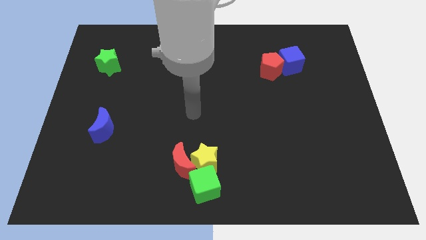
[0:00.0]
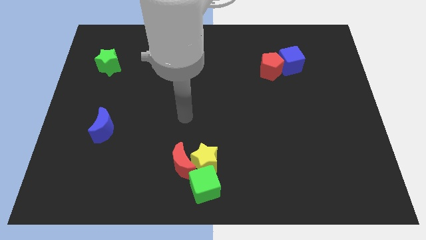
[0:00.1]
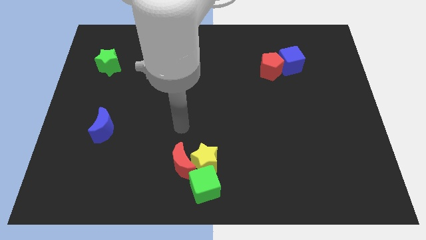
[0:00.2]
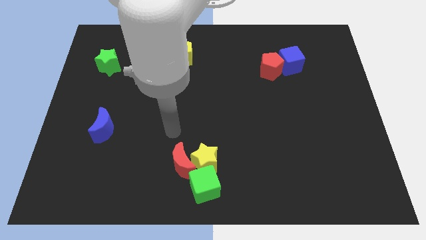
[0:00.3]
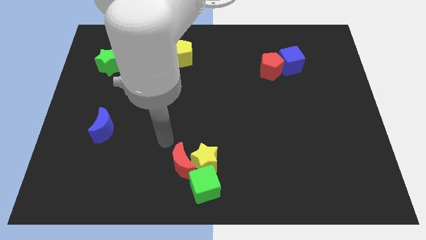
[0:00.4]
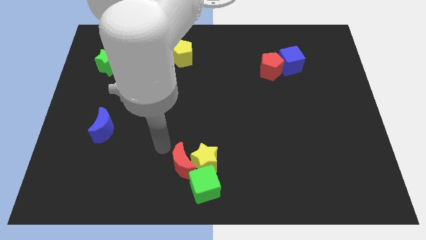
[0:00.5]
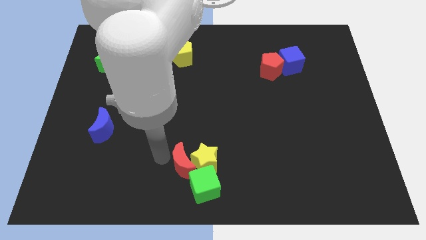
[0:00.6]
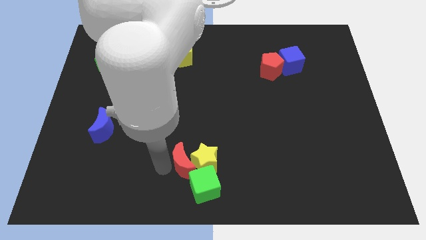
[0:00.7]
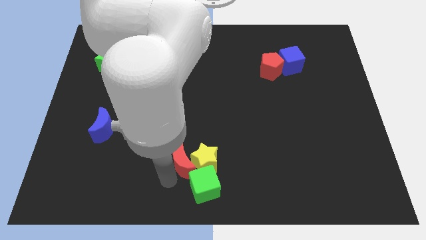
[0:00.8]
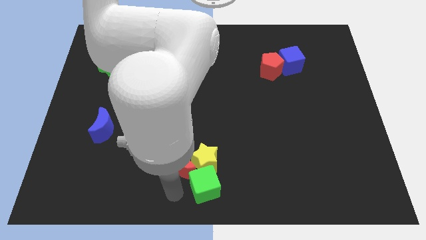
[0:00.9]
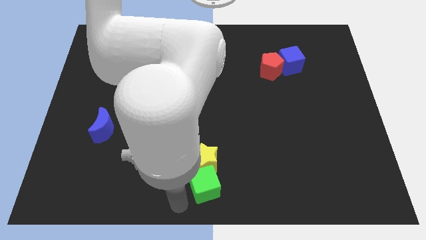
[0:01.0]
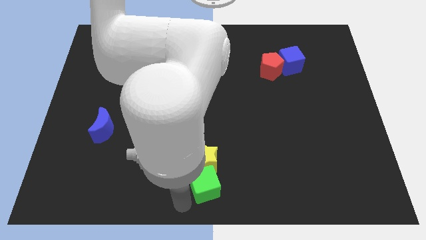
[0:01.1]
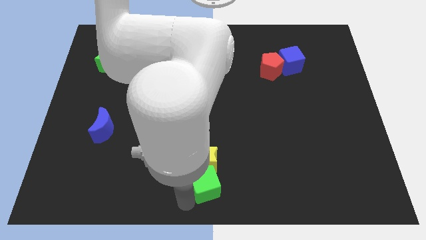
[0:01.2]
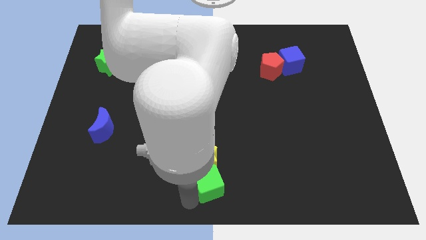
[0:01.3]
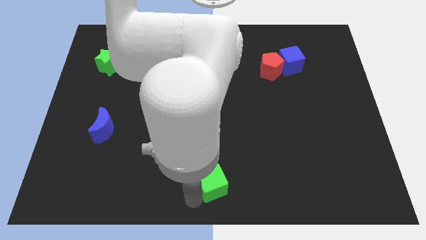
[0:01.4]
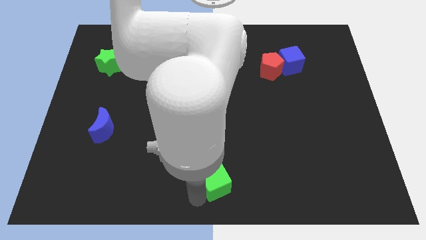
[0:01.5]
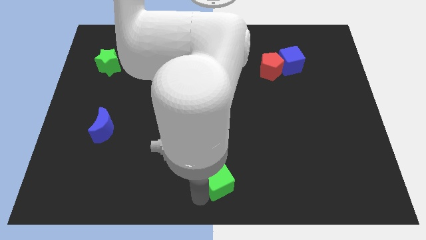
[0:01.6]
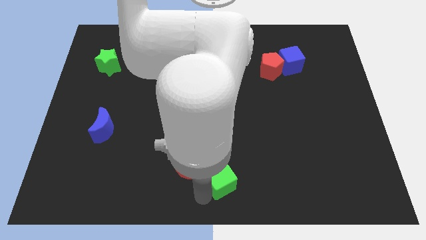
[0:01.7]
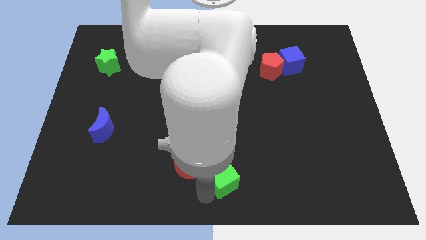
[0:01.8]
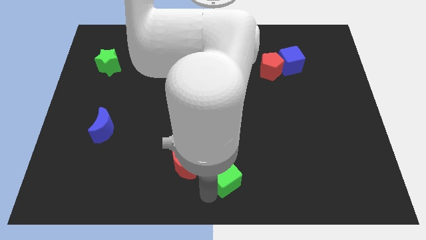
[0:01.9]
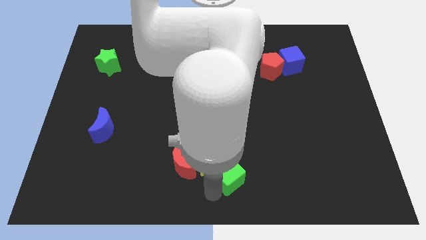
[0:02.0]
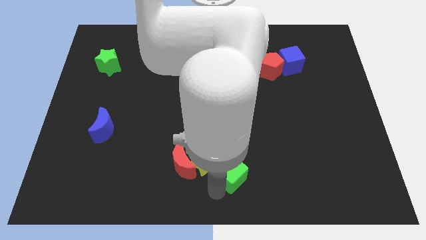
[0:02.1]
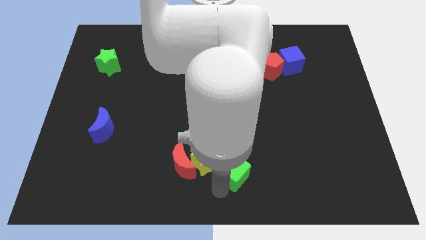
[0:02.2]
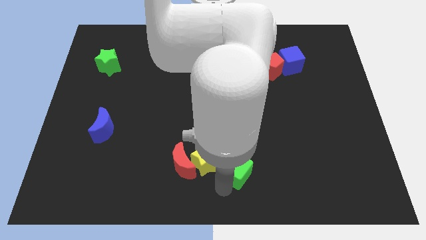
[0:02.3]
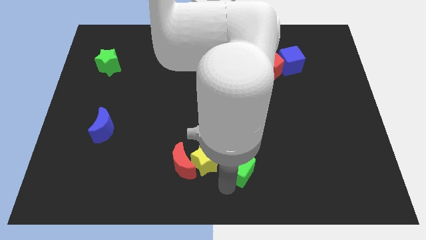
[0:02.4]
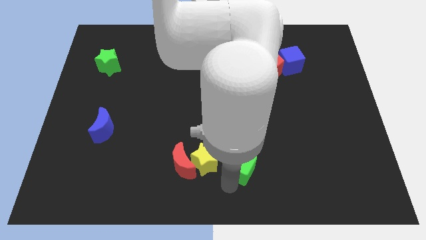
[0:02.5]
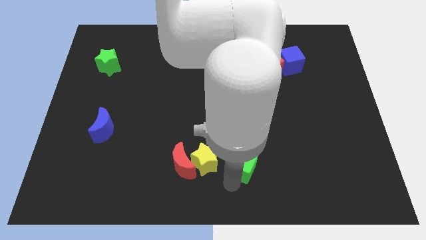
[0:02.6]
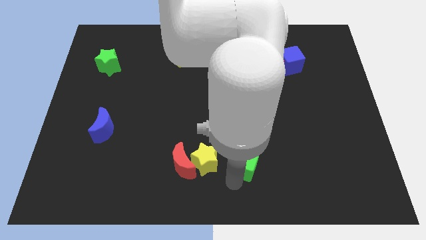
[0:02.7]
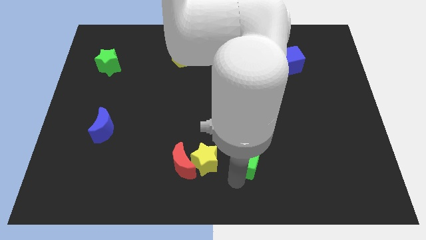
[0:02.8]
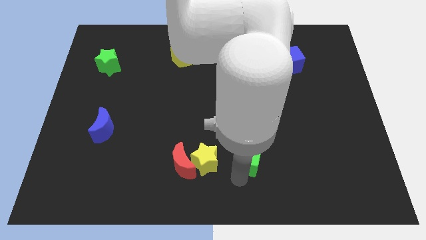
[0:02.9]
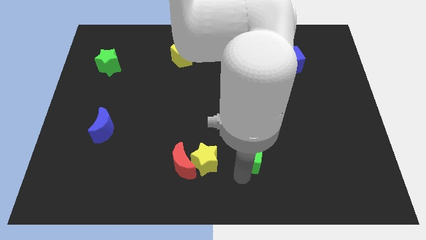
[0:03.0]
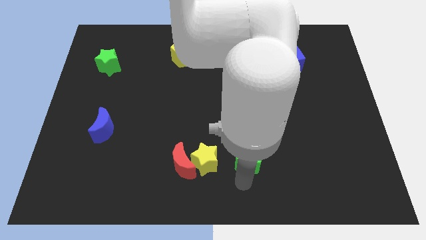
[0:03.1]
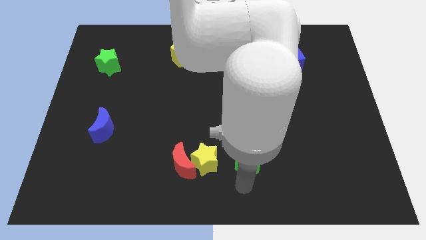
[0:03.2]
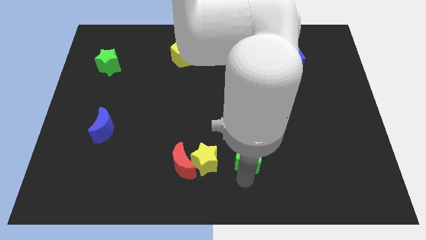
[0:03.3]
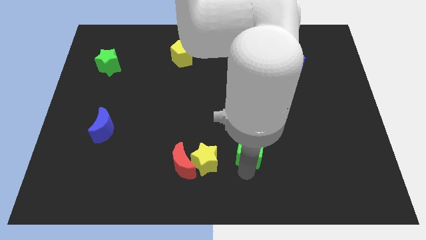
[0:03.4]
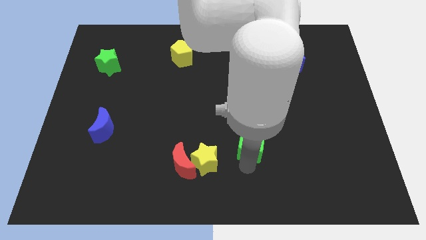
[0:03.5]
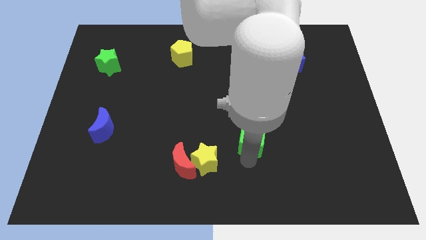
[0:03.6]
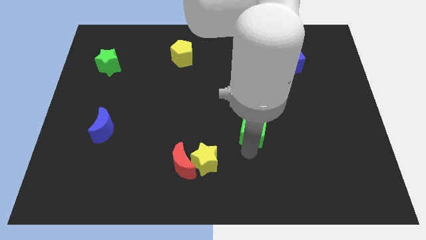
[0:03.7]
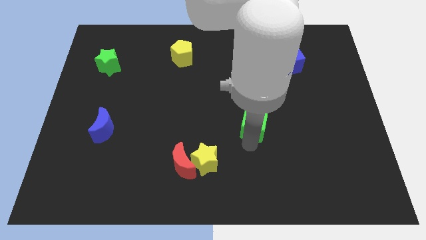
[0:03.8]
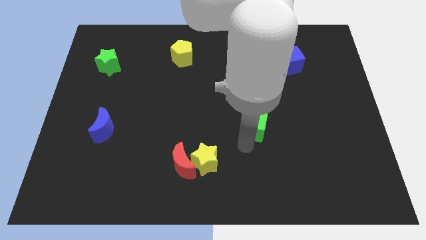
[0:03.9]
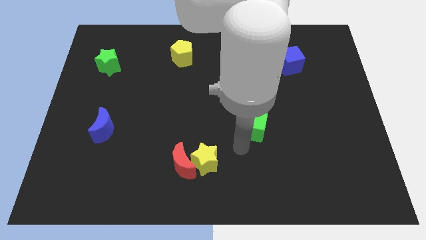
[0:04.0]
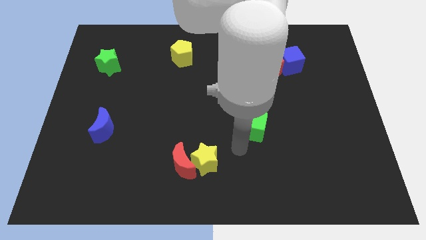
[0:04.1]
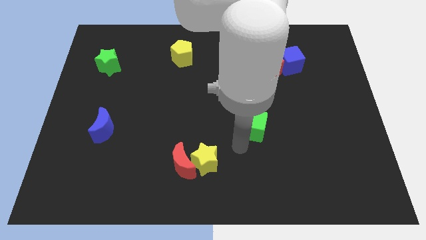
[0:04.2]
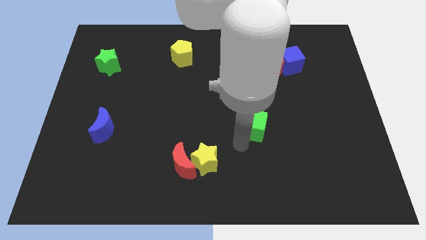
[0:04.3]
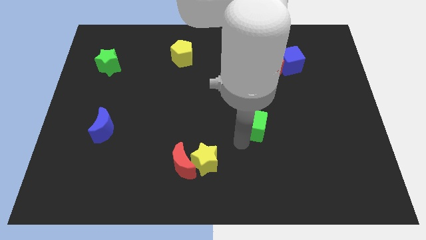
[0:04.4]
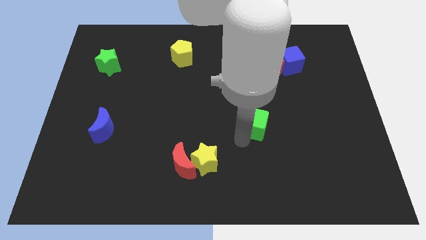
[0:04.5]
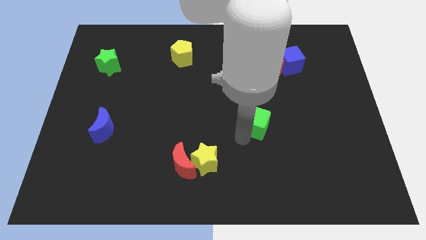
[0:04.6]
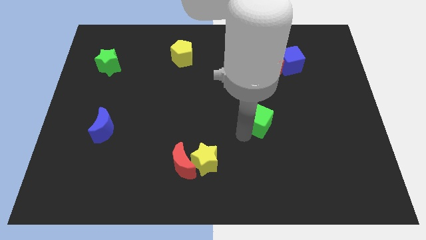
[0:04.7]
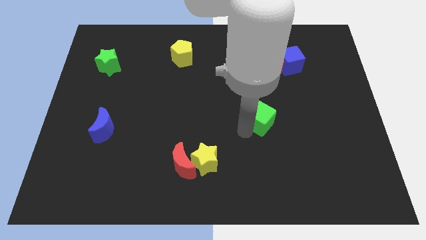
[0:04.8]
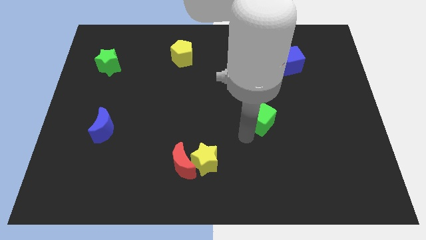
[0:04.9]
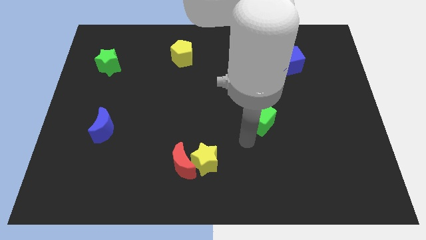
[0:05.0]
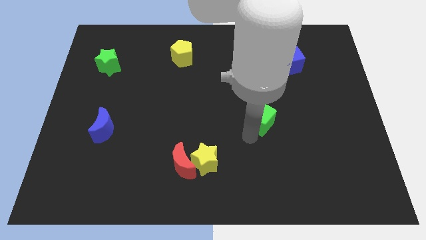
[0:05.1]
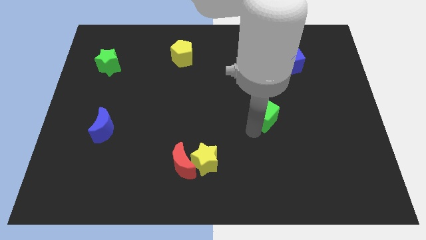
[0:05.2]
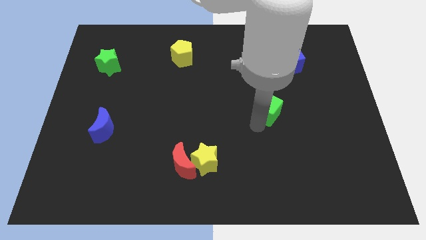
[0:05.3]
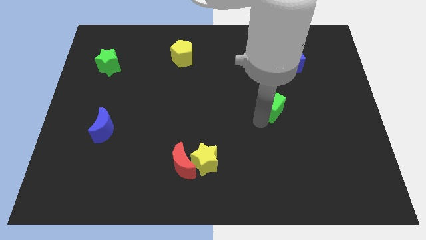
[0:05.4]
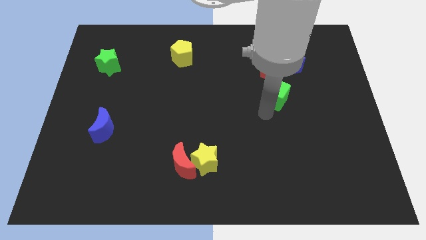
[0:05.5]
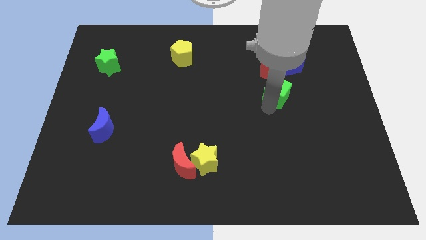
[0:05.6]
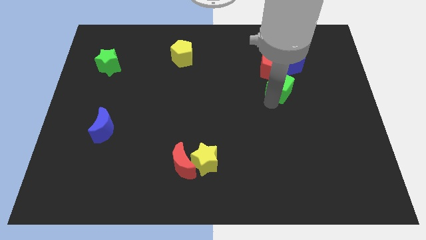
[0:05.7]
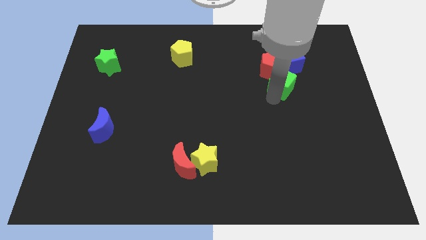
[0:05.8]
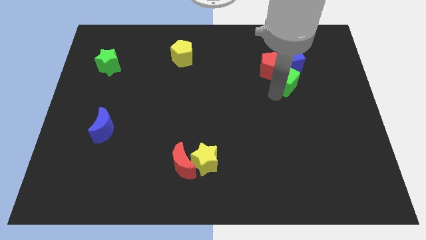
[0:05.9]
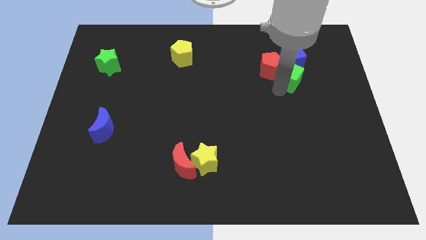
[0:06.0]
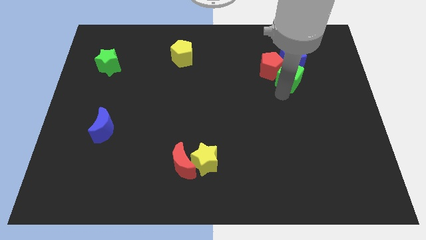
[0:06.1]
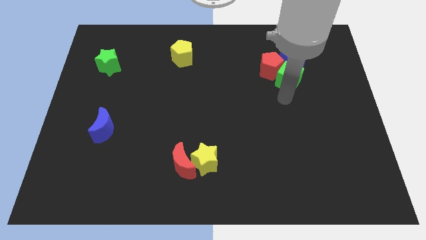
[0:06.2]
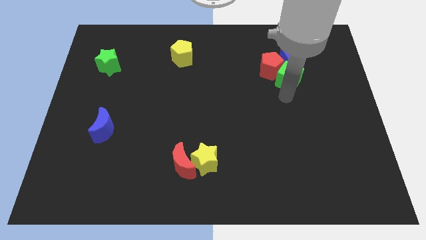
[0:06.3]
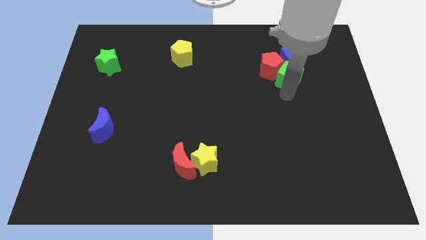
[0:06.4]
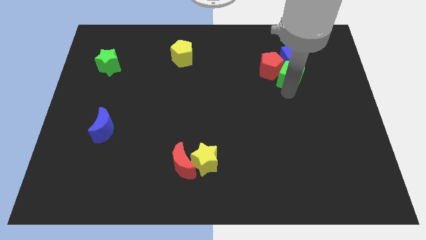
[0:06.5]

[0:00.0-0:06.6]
push the green cube next to the blue cube
